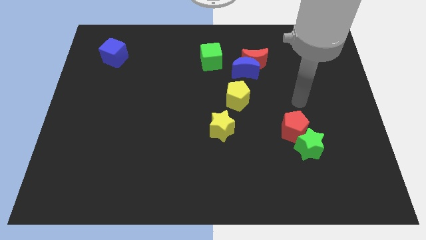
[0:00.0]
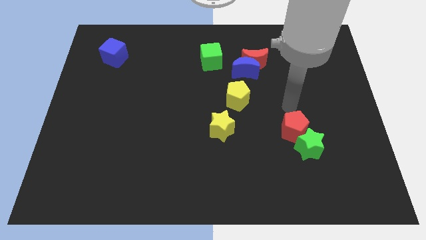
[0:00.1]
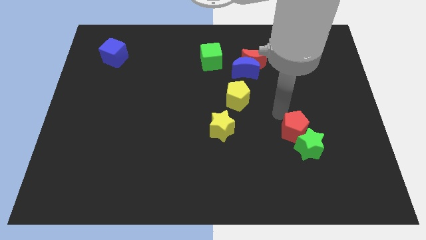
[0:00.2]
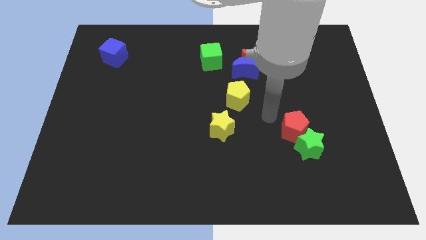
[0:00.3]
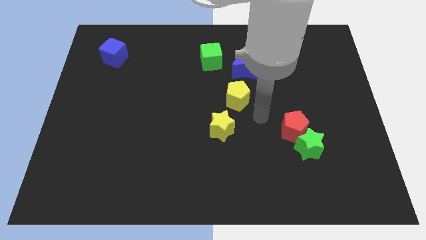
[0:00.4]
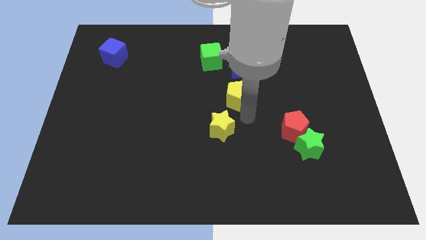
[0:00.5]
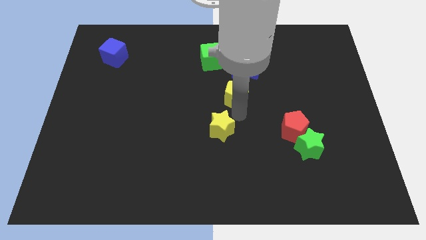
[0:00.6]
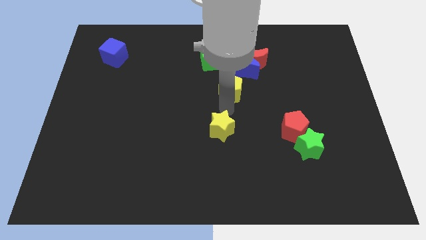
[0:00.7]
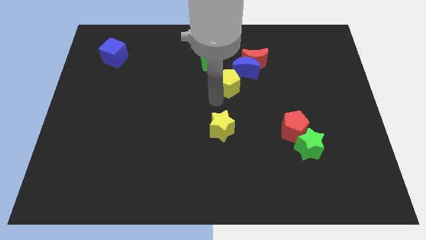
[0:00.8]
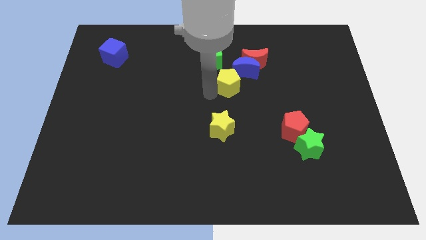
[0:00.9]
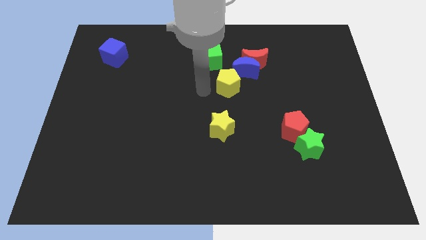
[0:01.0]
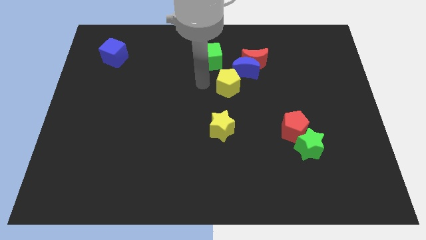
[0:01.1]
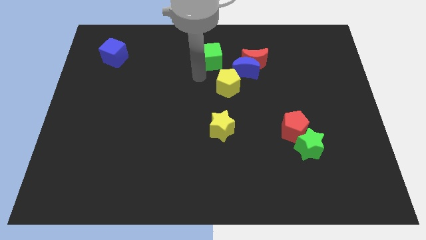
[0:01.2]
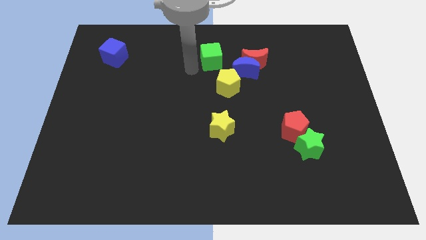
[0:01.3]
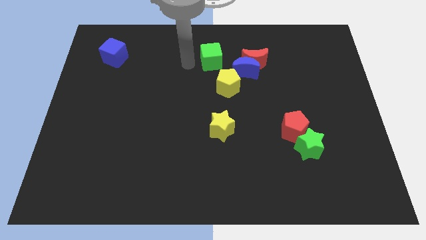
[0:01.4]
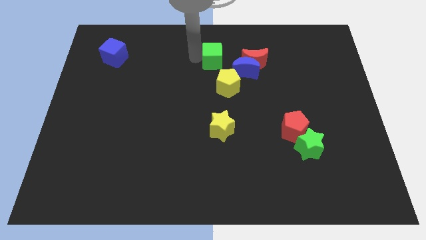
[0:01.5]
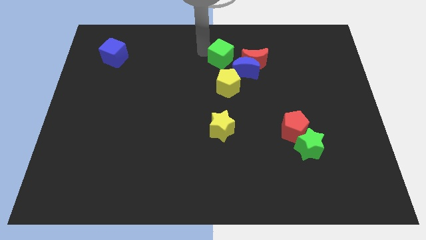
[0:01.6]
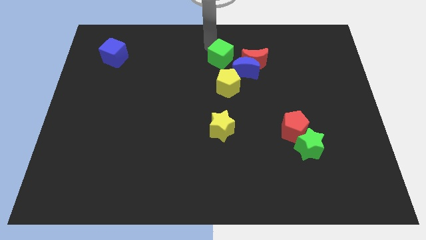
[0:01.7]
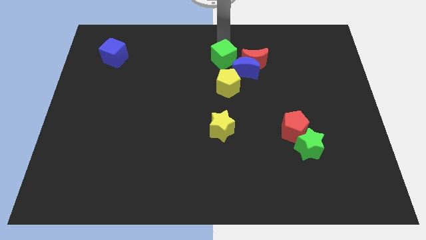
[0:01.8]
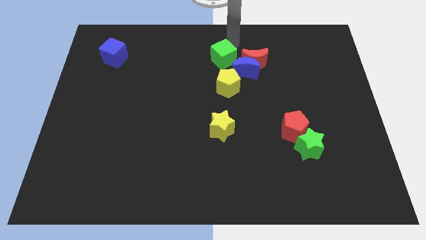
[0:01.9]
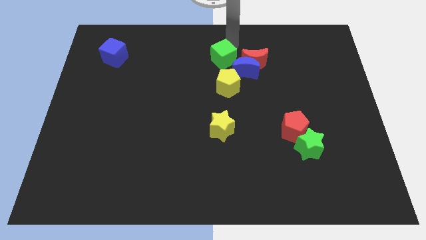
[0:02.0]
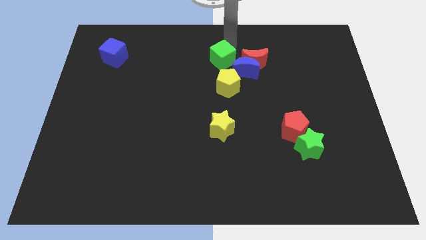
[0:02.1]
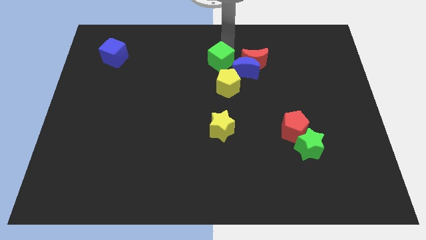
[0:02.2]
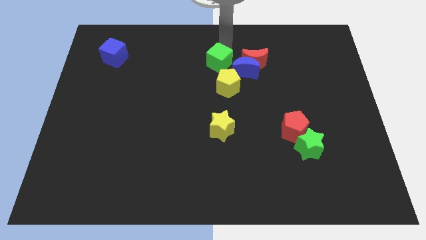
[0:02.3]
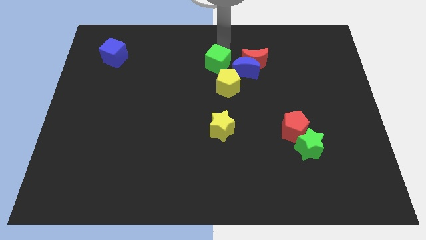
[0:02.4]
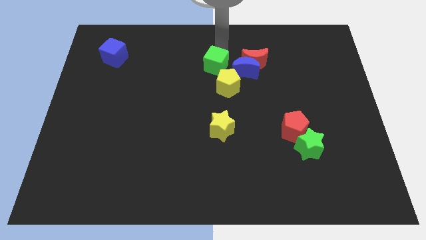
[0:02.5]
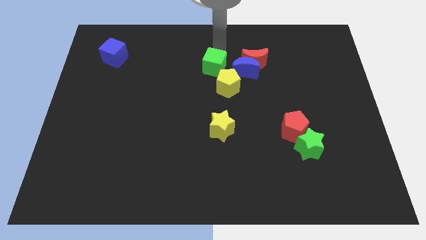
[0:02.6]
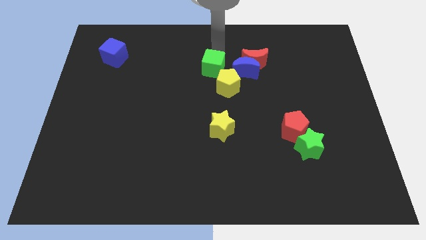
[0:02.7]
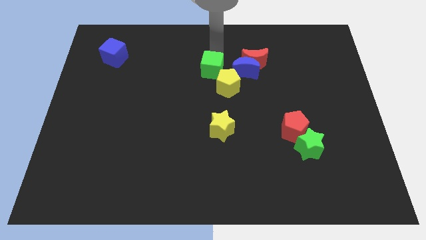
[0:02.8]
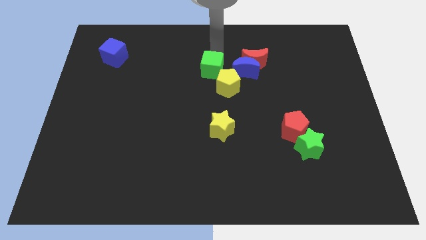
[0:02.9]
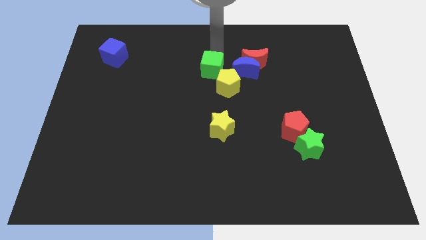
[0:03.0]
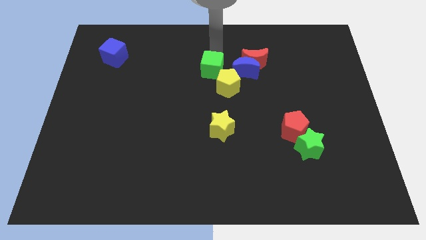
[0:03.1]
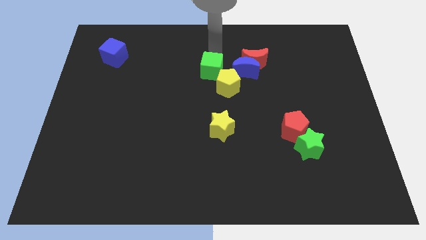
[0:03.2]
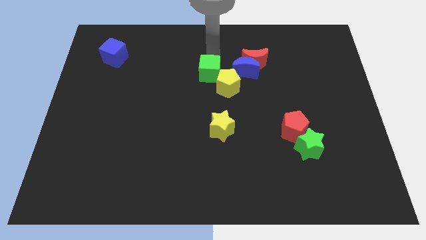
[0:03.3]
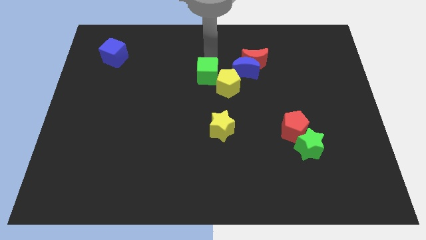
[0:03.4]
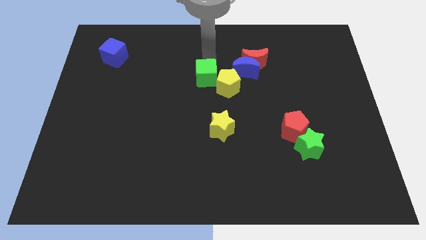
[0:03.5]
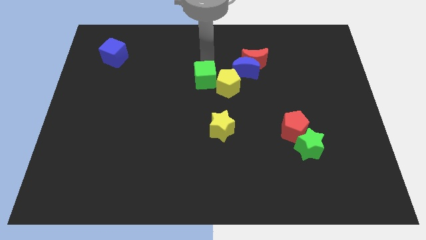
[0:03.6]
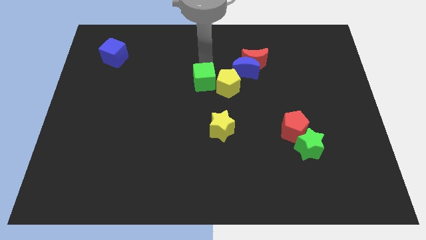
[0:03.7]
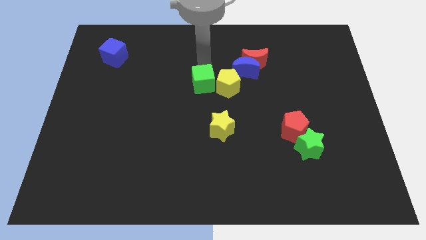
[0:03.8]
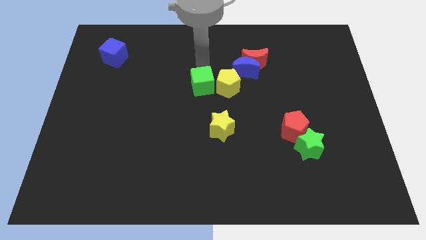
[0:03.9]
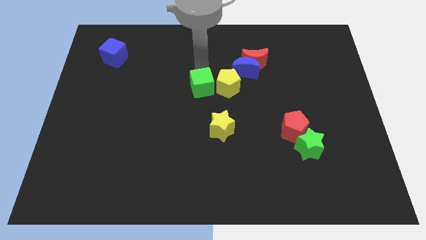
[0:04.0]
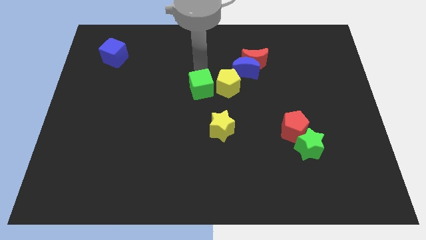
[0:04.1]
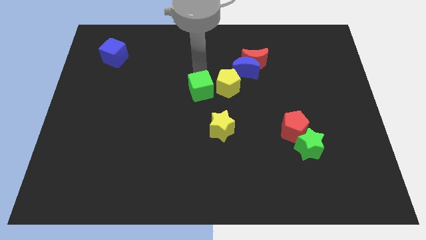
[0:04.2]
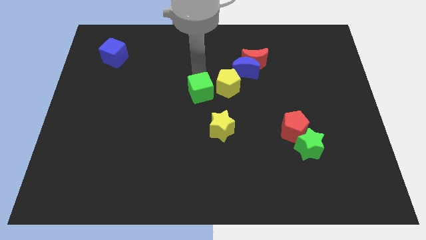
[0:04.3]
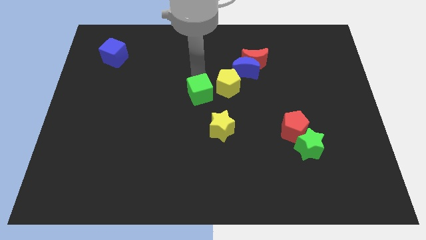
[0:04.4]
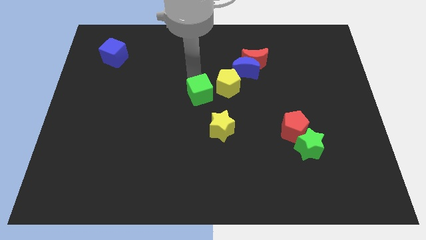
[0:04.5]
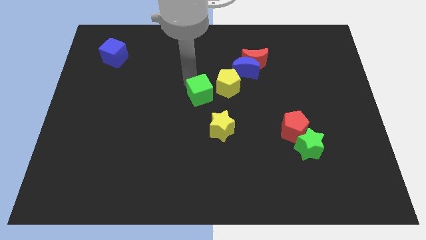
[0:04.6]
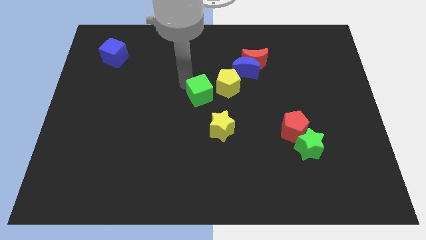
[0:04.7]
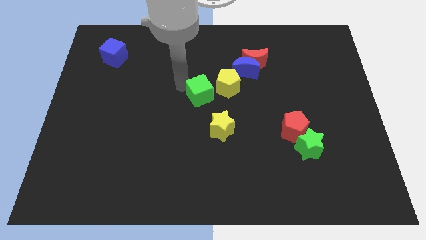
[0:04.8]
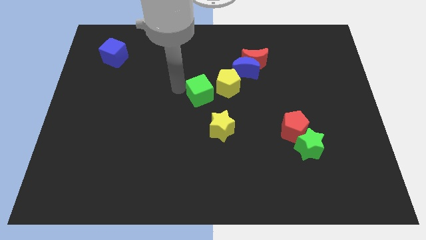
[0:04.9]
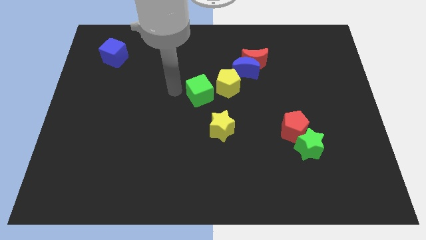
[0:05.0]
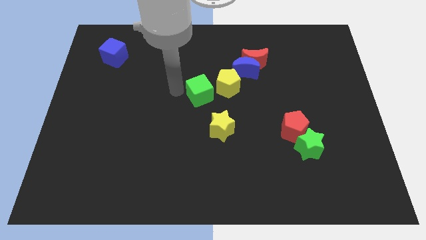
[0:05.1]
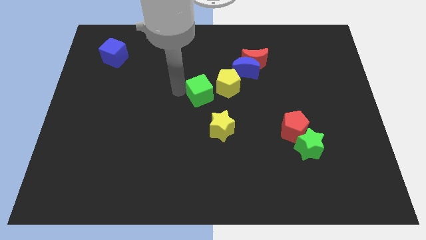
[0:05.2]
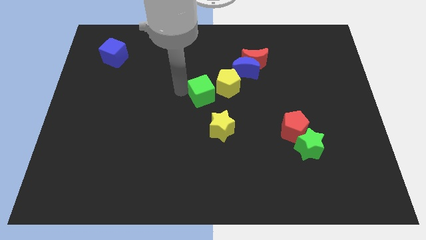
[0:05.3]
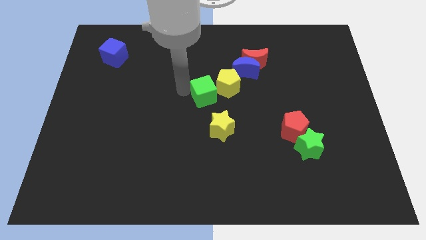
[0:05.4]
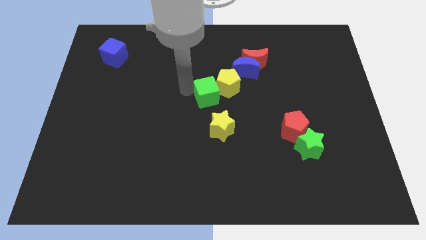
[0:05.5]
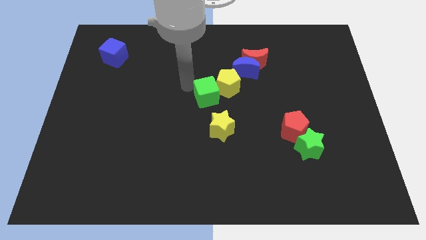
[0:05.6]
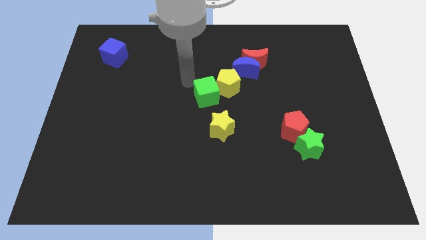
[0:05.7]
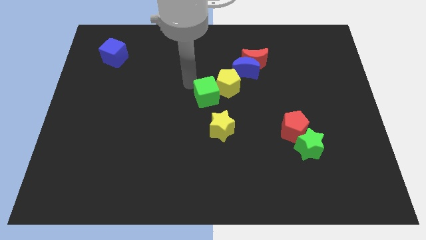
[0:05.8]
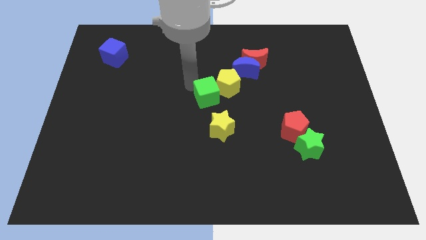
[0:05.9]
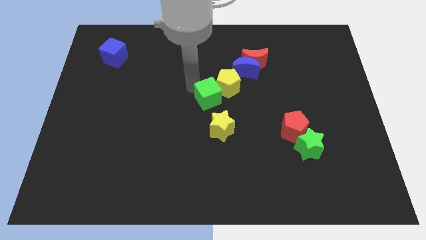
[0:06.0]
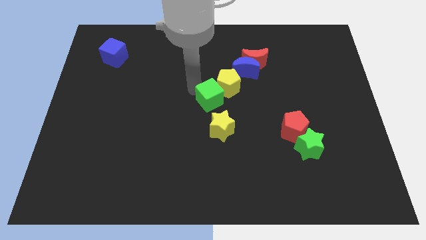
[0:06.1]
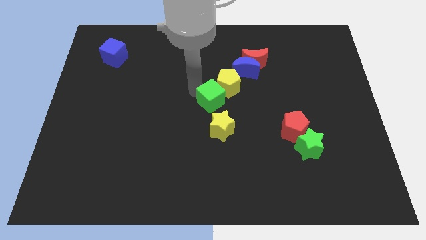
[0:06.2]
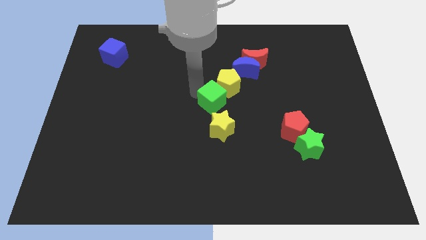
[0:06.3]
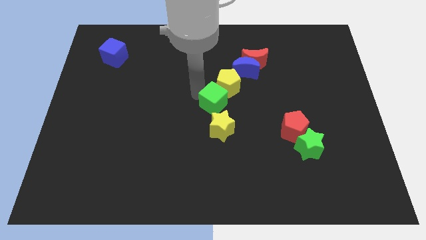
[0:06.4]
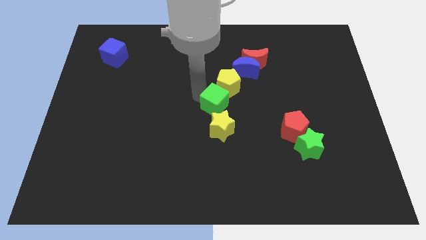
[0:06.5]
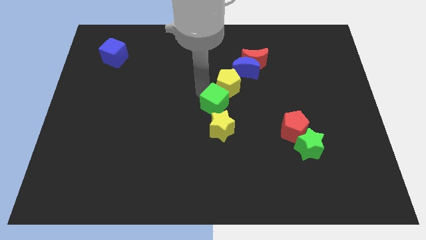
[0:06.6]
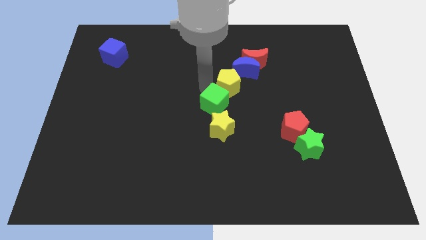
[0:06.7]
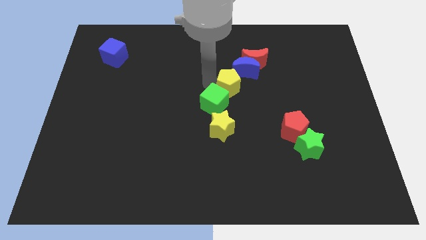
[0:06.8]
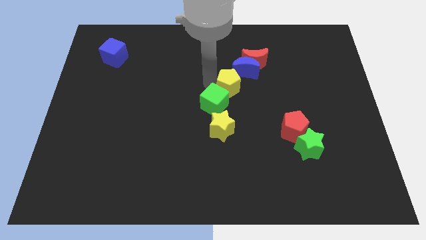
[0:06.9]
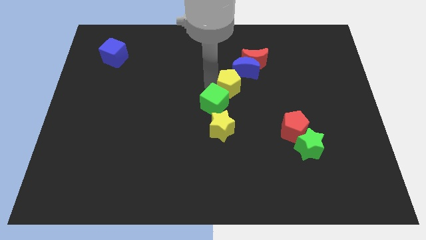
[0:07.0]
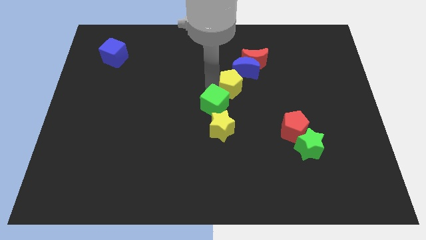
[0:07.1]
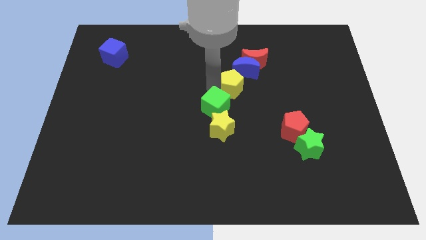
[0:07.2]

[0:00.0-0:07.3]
put the green cube close to the yellow star

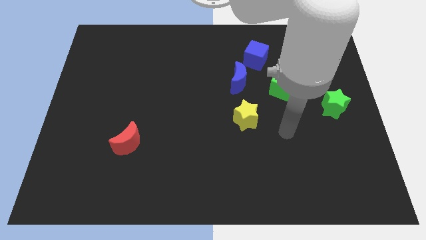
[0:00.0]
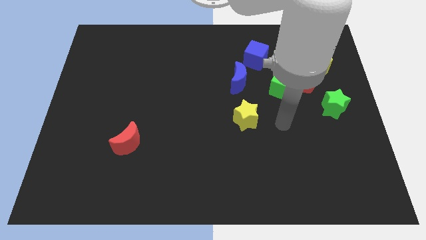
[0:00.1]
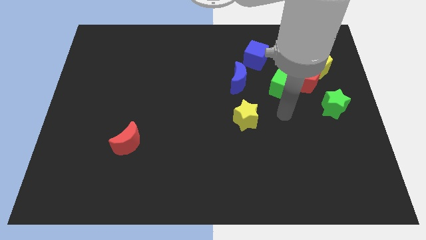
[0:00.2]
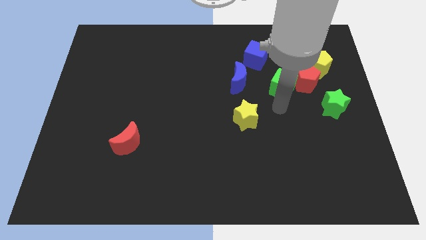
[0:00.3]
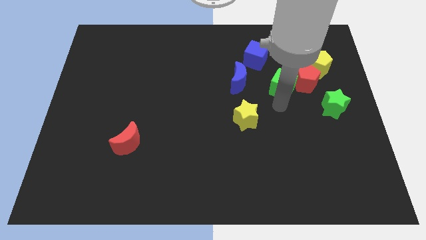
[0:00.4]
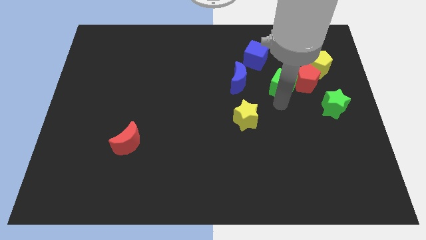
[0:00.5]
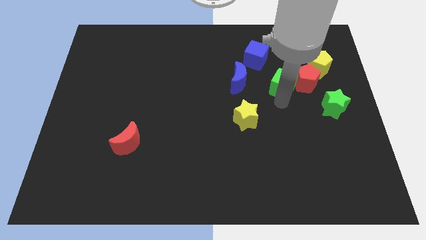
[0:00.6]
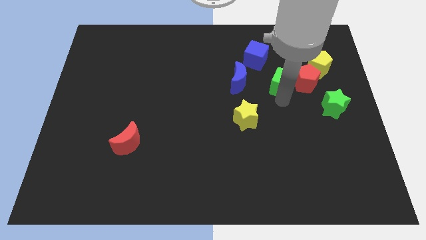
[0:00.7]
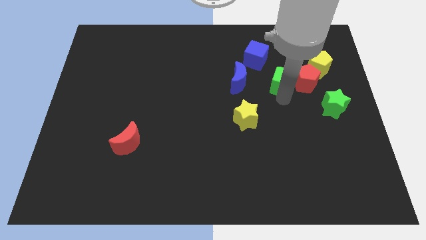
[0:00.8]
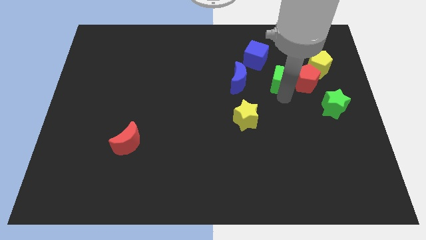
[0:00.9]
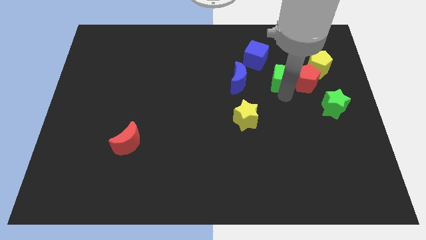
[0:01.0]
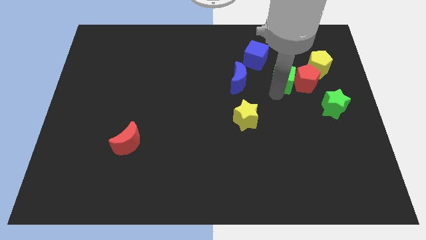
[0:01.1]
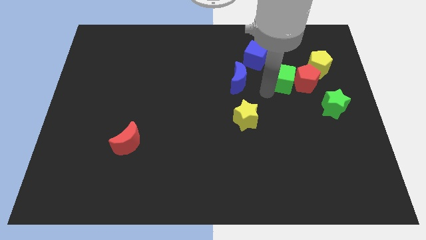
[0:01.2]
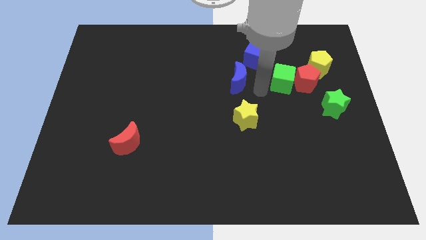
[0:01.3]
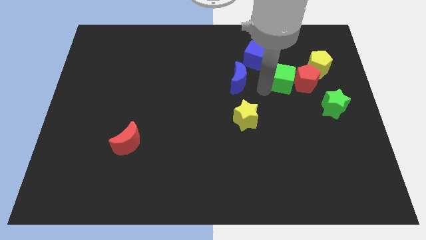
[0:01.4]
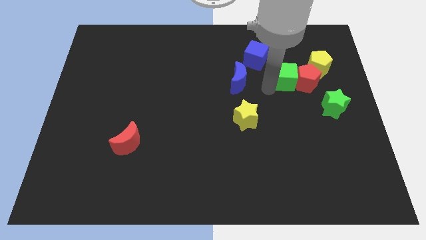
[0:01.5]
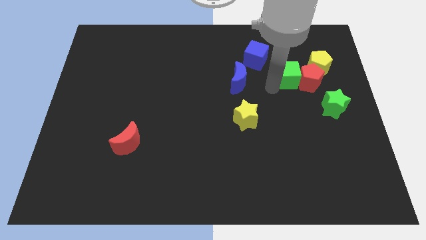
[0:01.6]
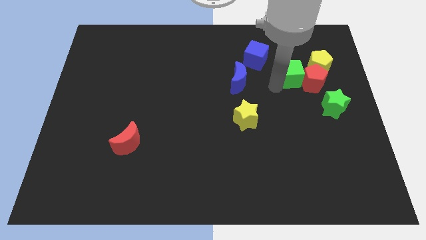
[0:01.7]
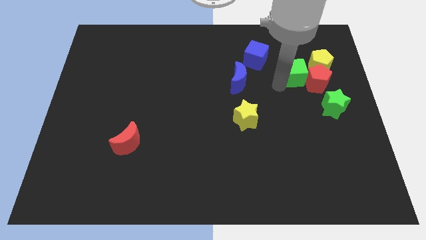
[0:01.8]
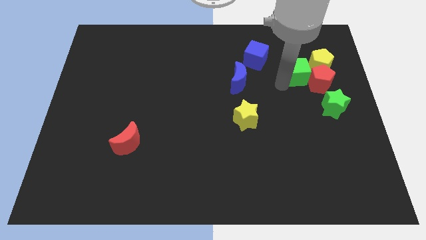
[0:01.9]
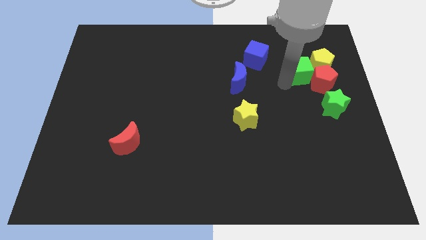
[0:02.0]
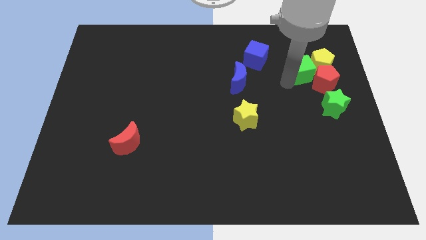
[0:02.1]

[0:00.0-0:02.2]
push the green cube next to the yellow pentagon
